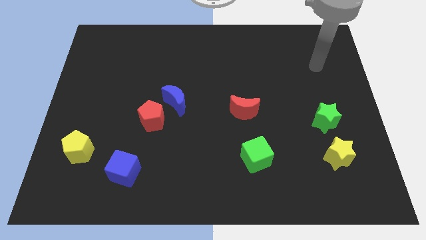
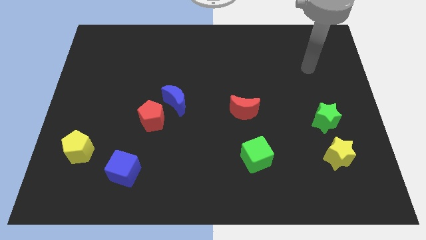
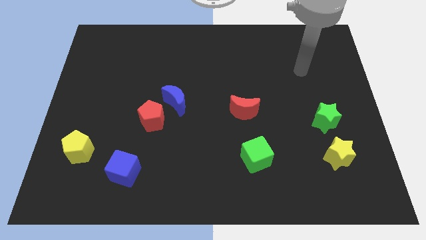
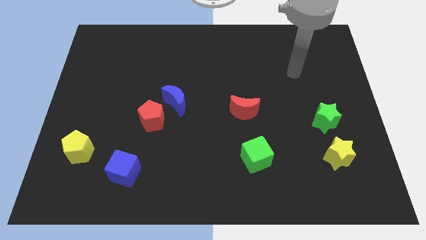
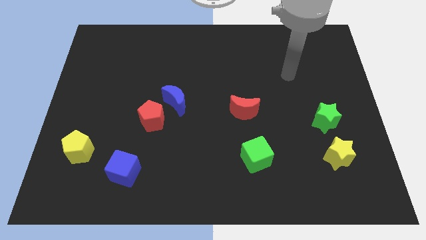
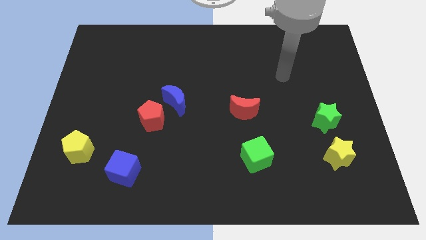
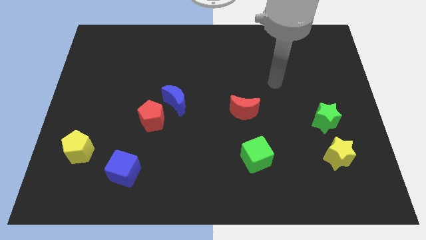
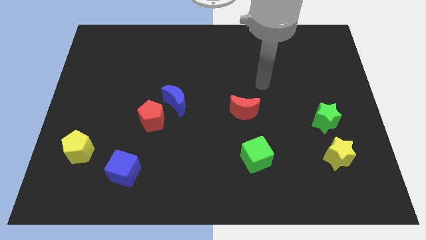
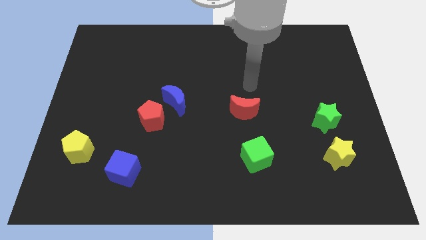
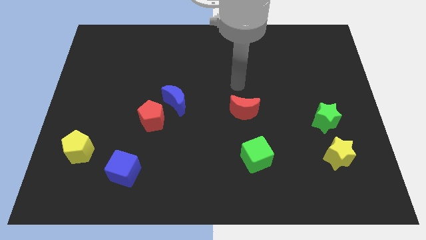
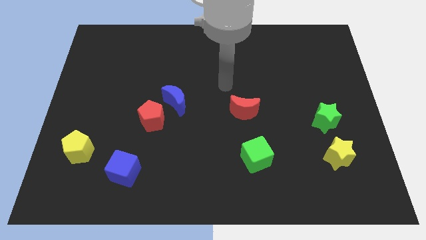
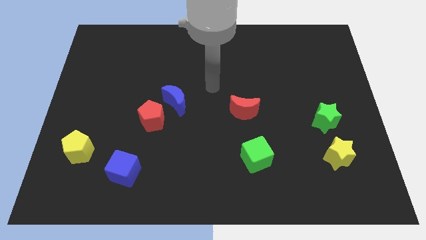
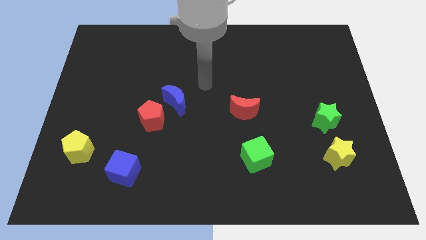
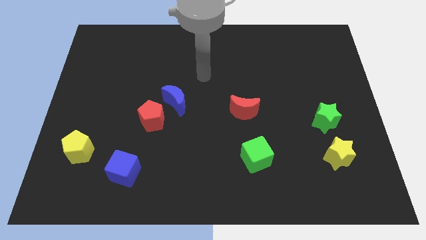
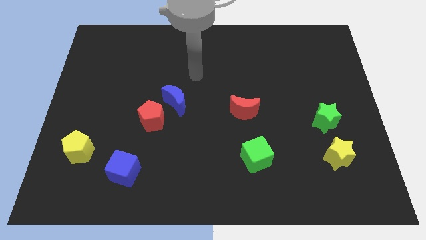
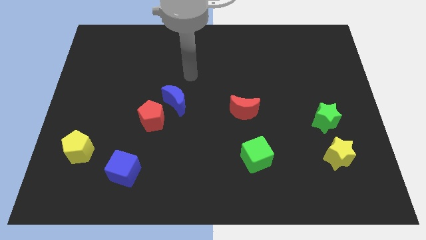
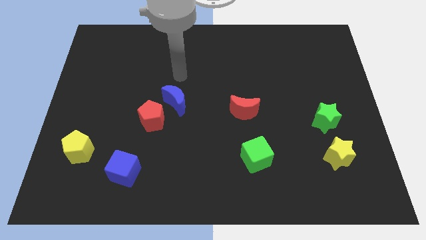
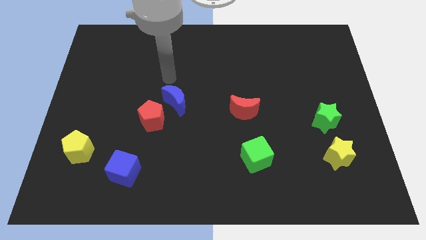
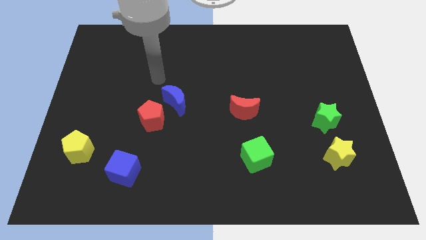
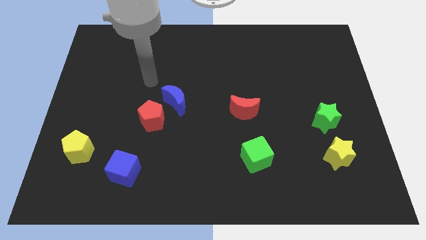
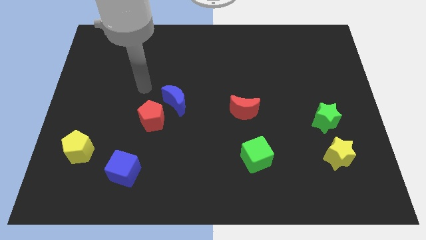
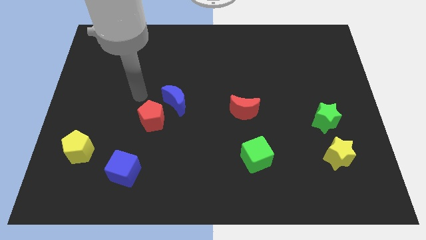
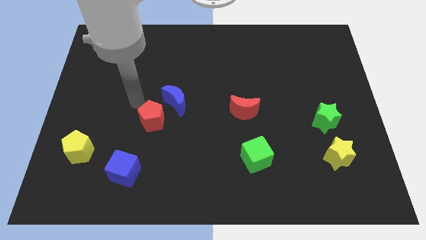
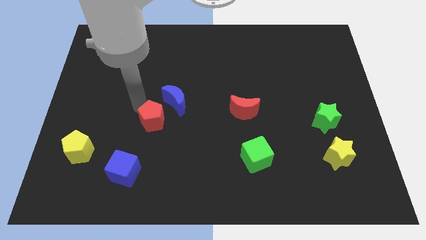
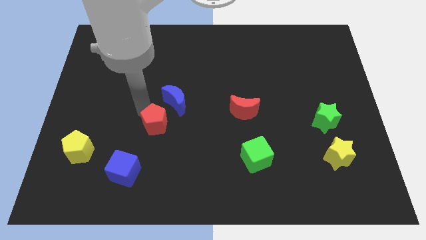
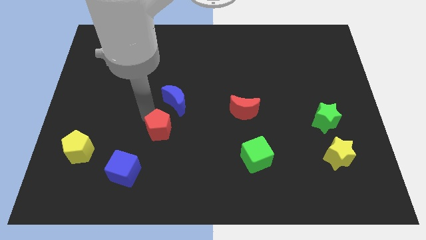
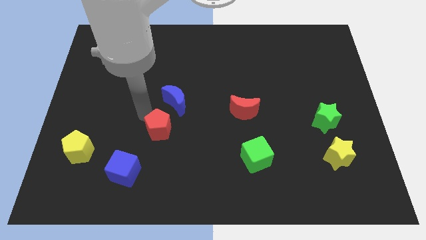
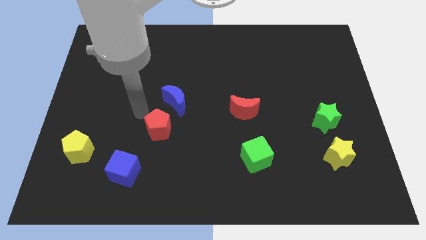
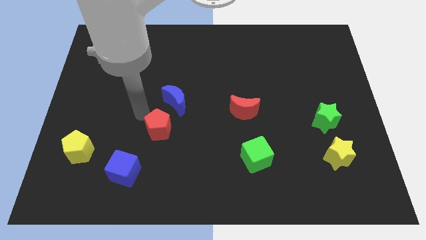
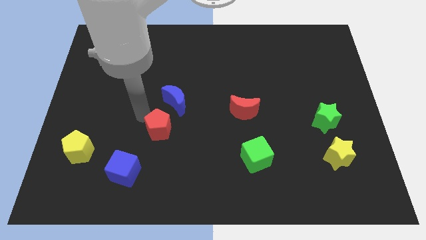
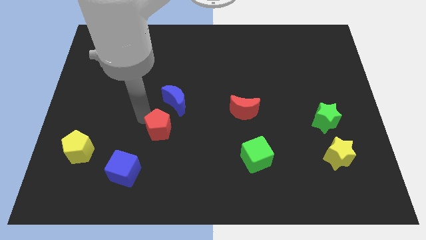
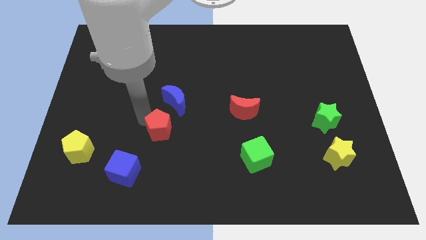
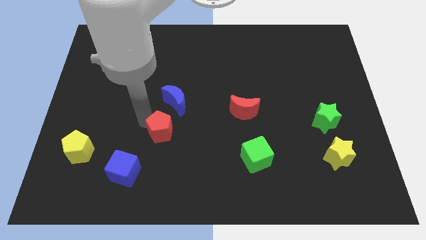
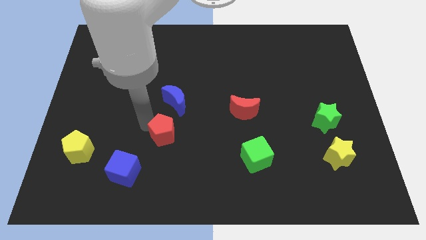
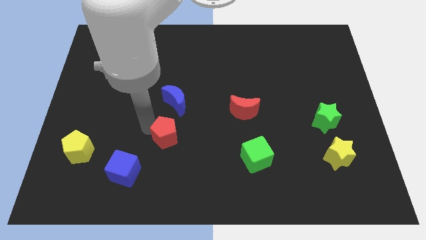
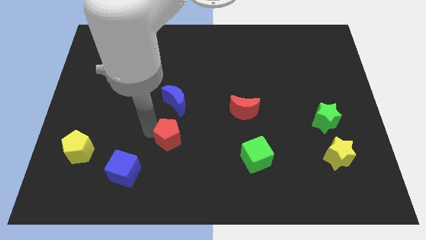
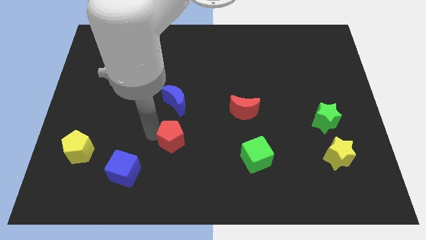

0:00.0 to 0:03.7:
move the red pentagon down and then right a bit

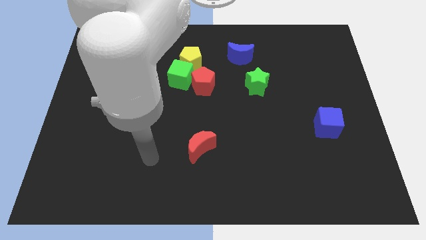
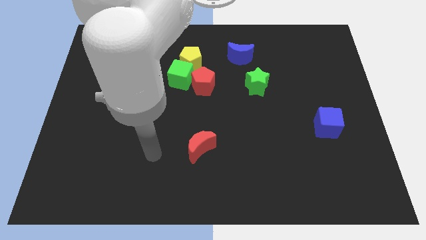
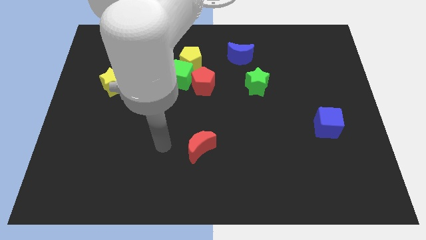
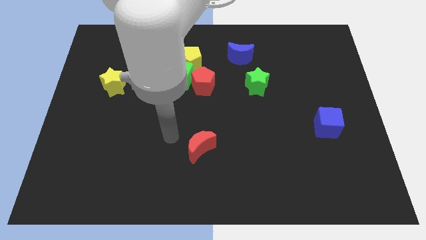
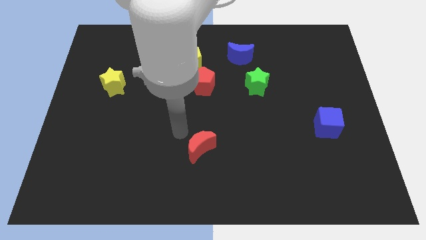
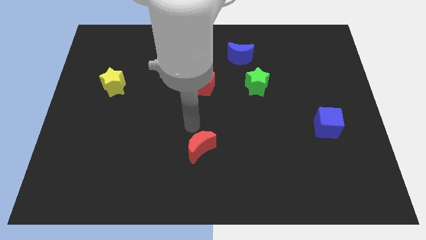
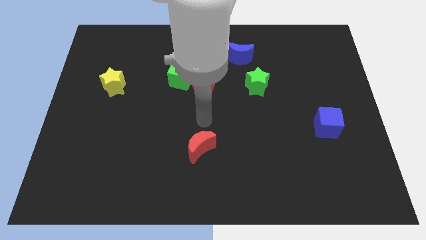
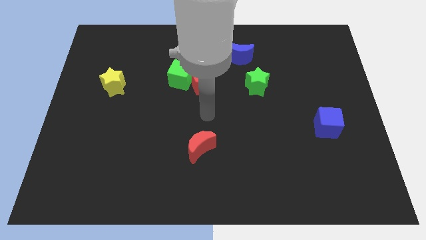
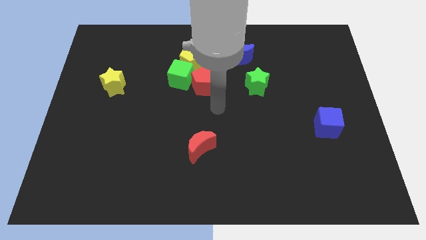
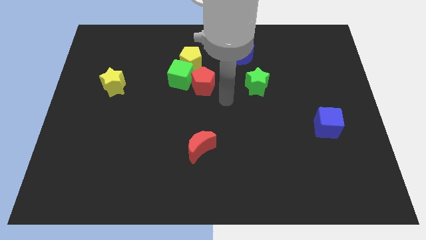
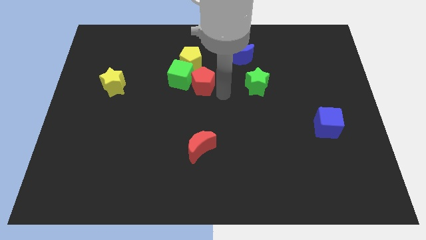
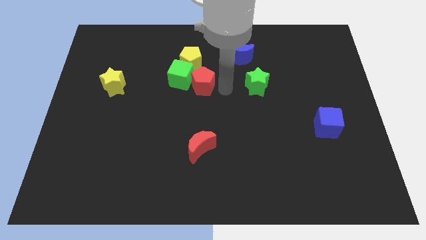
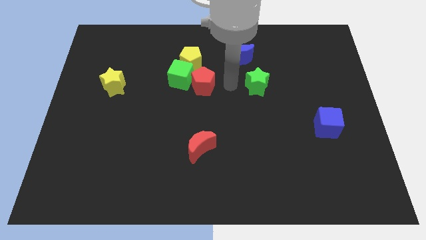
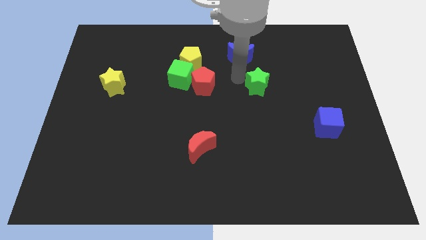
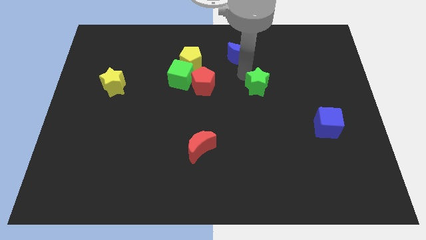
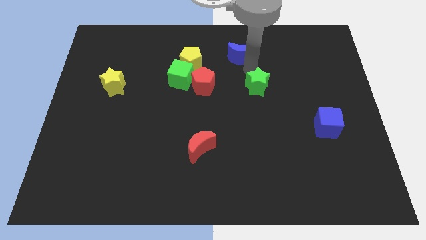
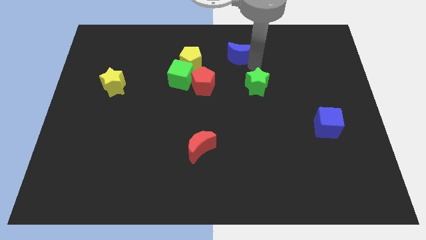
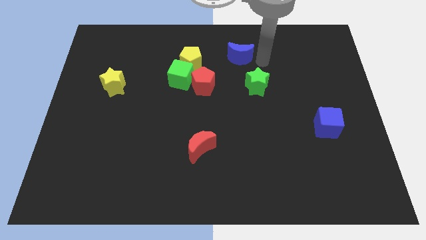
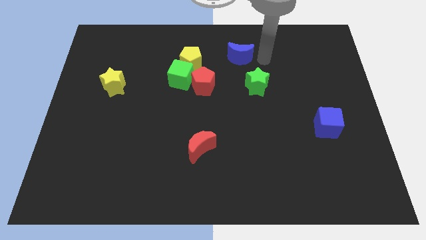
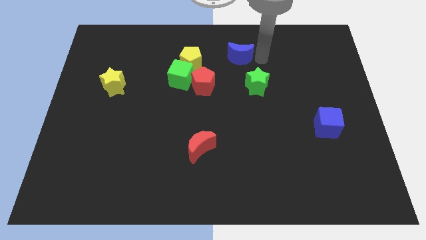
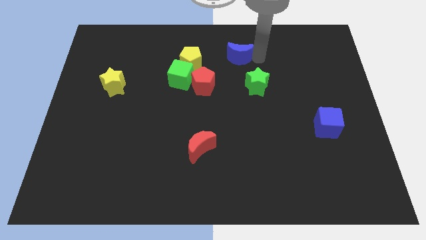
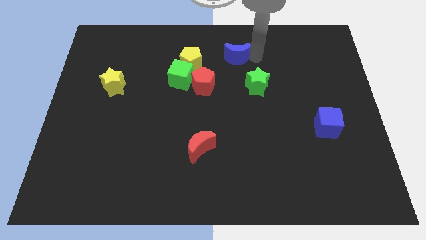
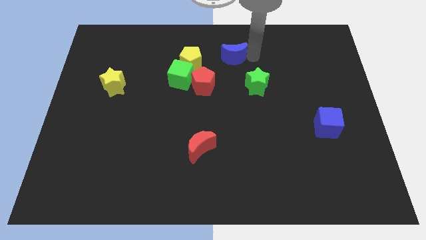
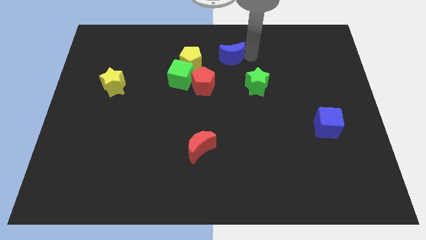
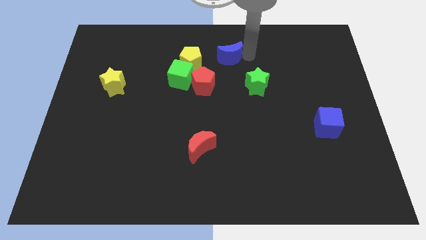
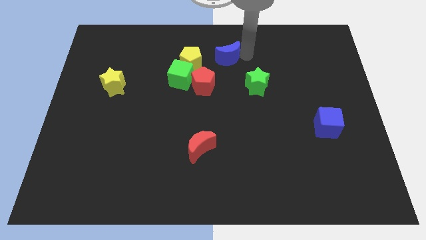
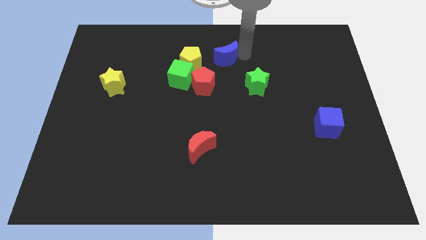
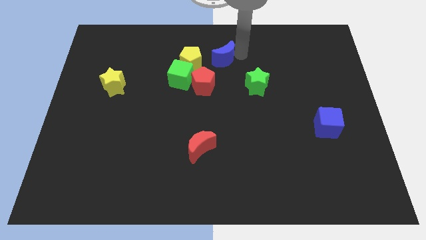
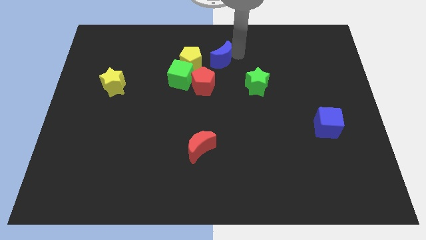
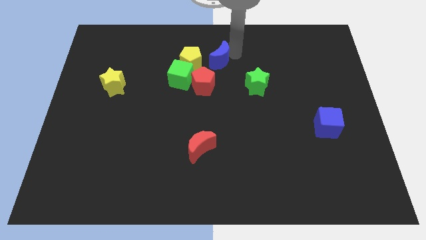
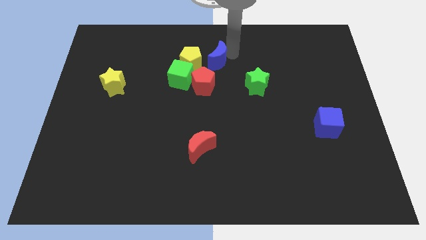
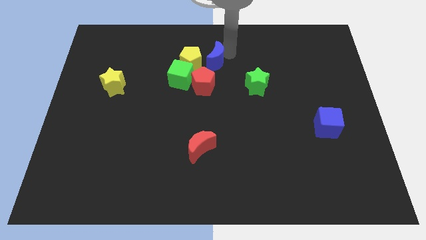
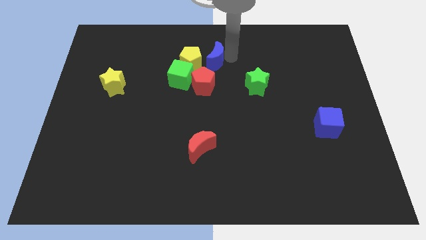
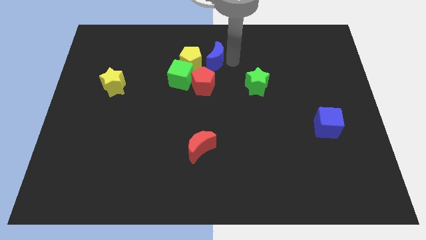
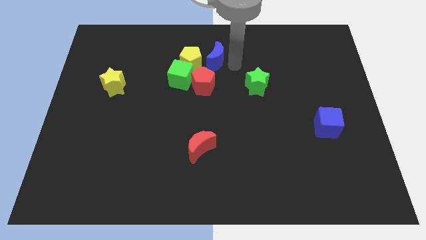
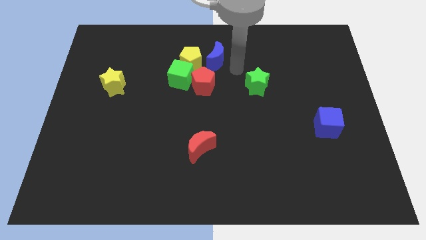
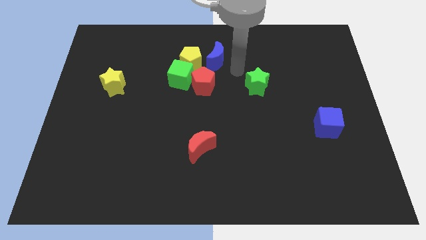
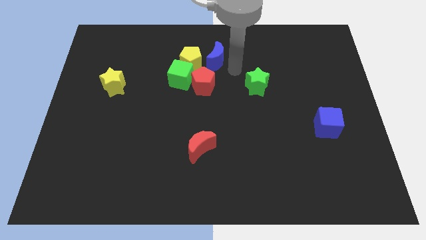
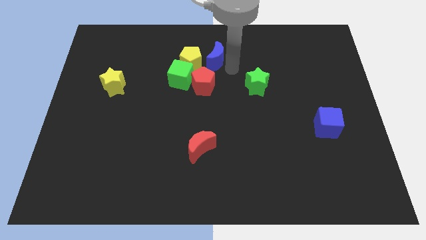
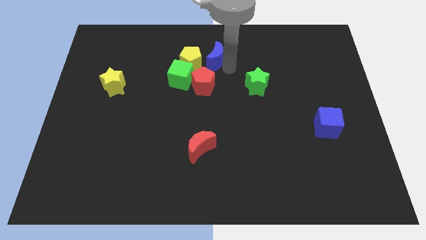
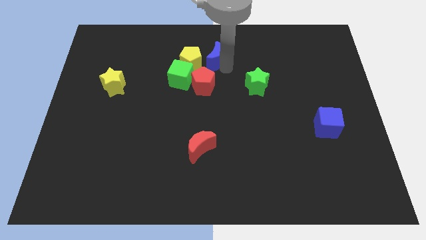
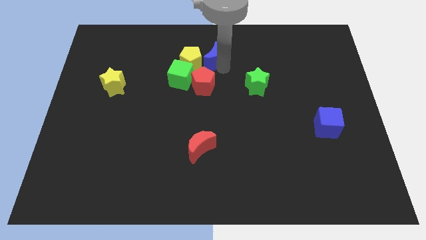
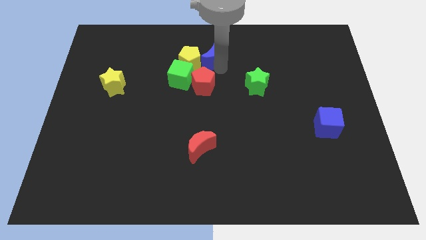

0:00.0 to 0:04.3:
move the blue moon left a bit
